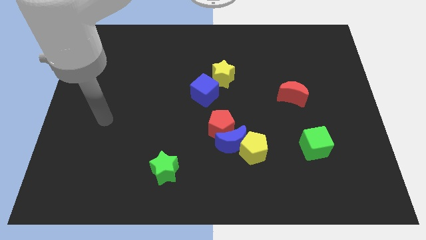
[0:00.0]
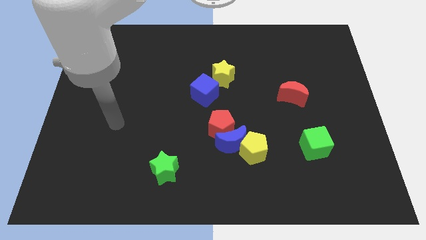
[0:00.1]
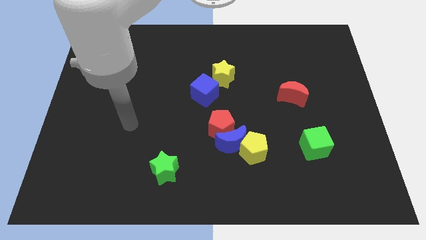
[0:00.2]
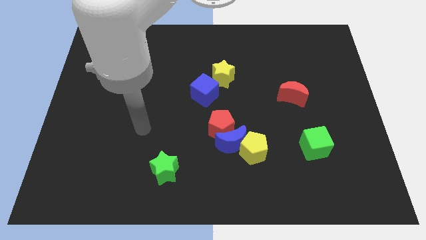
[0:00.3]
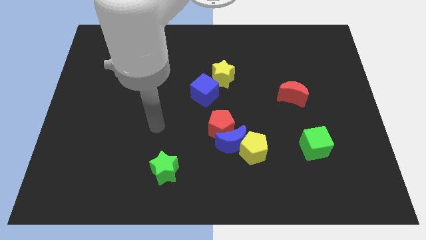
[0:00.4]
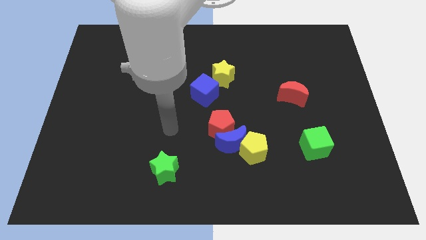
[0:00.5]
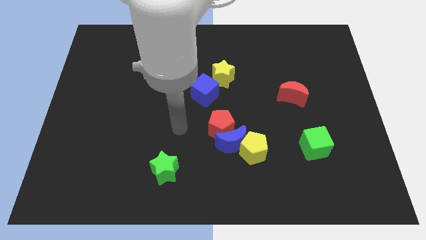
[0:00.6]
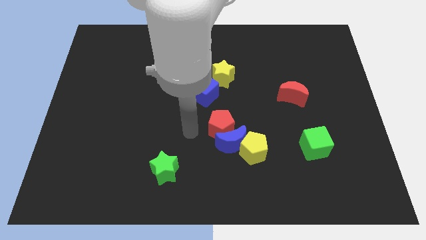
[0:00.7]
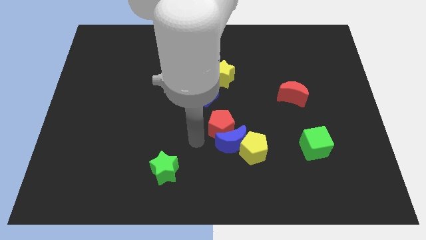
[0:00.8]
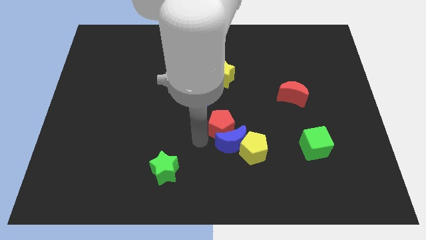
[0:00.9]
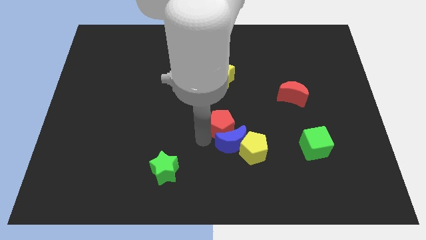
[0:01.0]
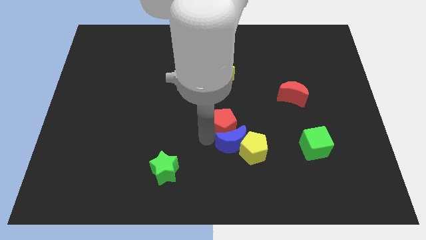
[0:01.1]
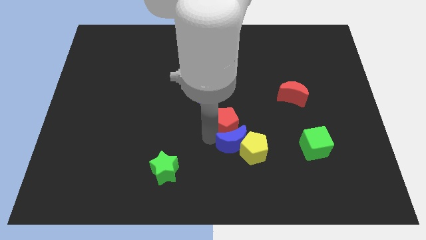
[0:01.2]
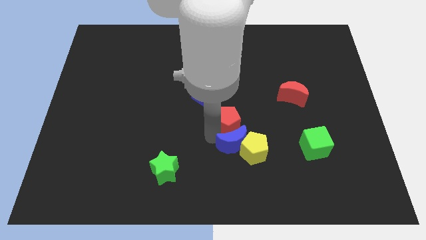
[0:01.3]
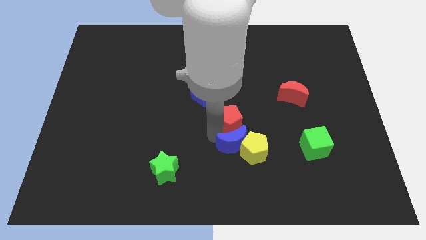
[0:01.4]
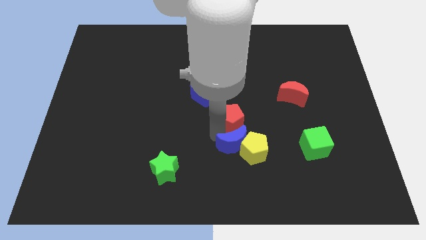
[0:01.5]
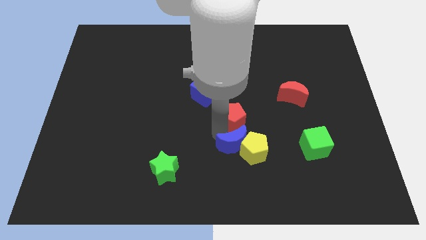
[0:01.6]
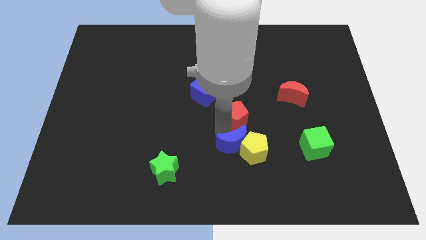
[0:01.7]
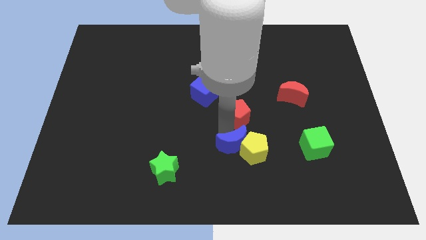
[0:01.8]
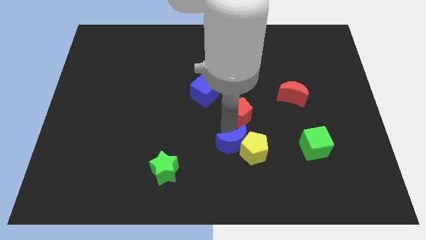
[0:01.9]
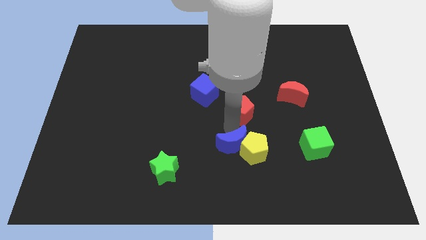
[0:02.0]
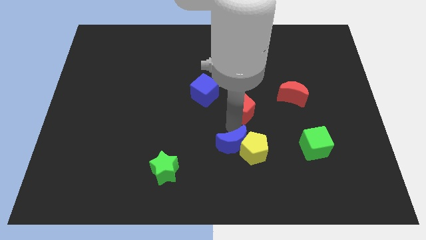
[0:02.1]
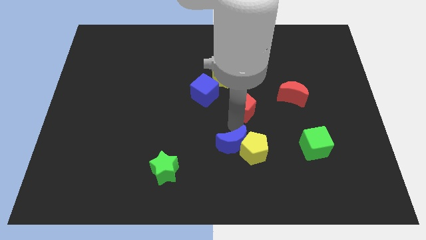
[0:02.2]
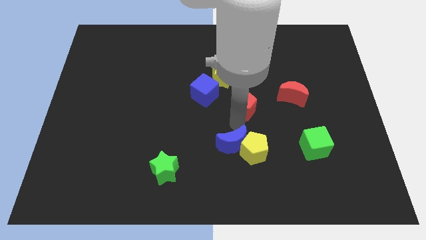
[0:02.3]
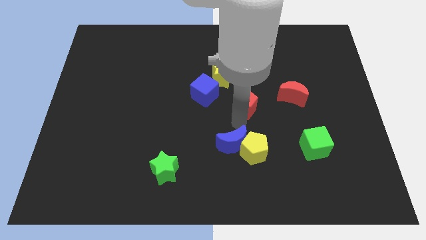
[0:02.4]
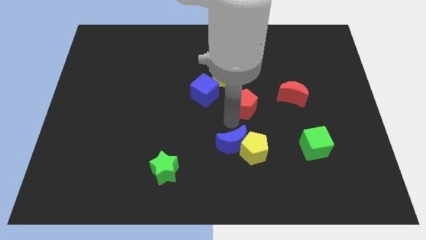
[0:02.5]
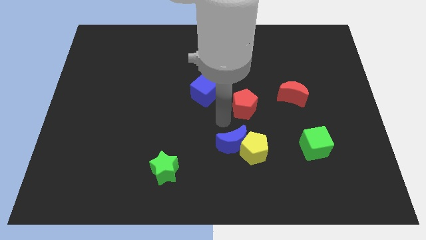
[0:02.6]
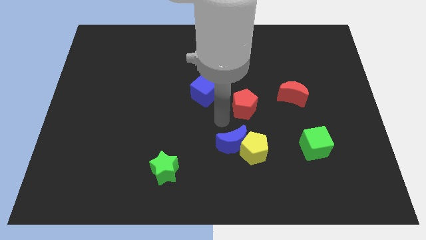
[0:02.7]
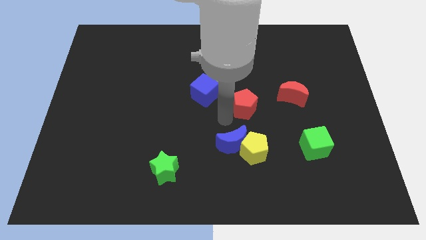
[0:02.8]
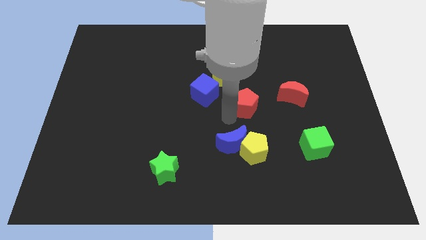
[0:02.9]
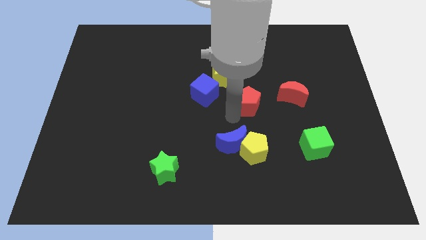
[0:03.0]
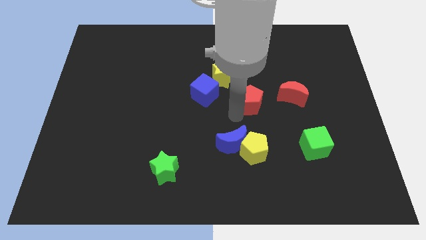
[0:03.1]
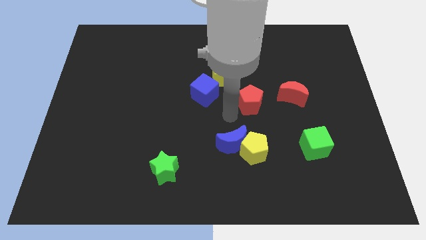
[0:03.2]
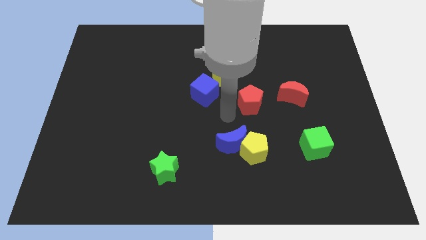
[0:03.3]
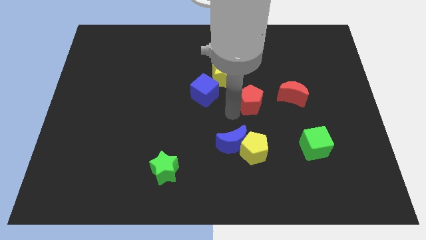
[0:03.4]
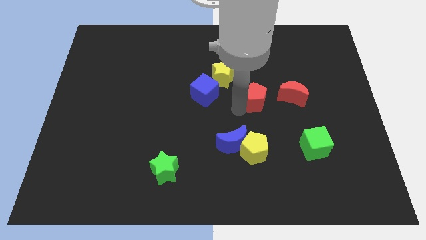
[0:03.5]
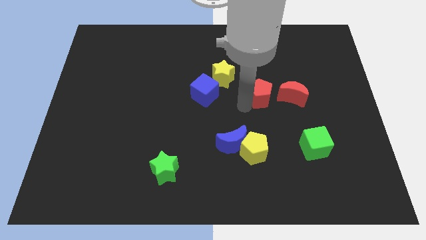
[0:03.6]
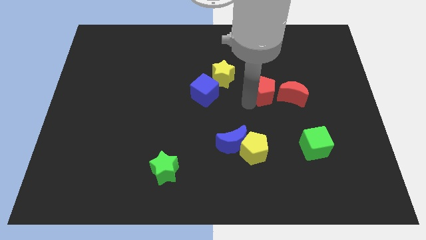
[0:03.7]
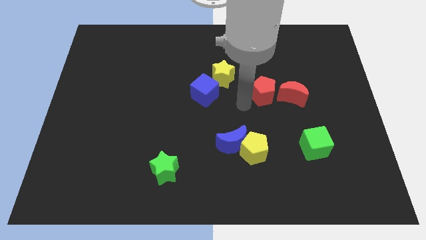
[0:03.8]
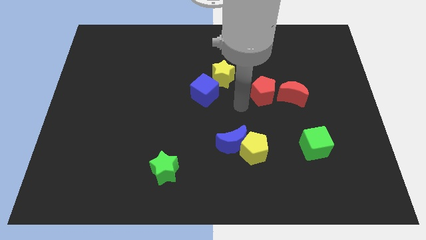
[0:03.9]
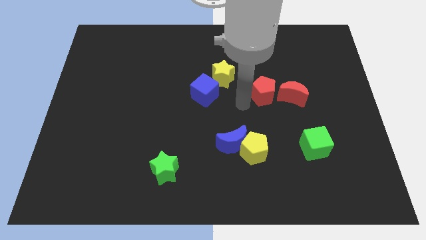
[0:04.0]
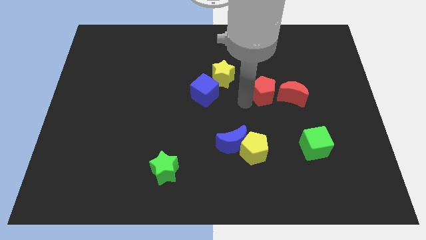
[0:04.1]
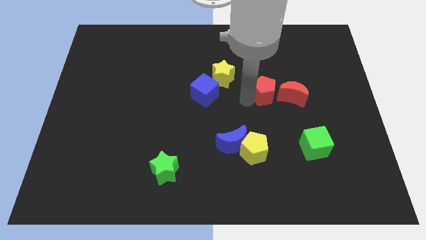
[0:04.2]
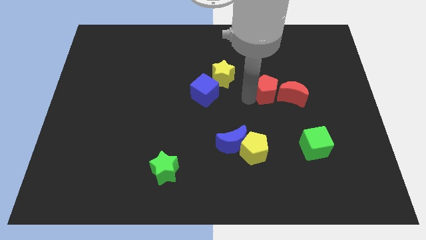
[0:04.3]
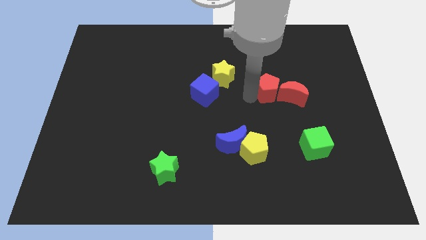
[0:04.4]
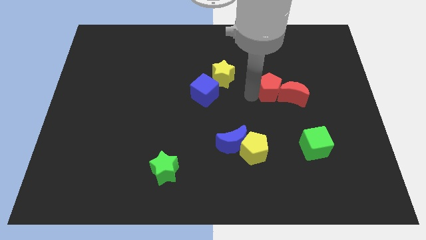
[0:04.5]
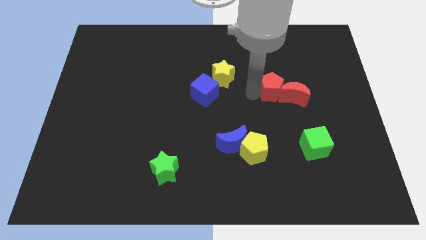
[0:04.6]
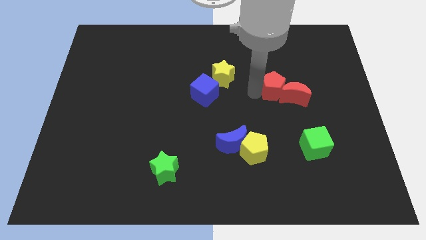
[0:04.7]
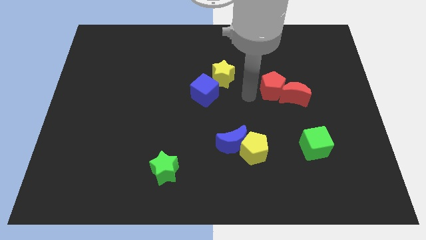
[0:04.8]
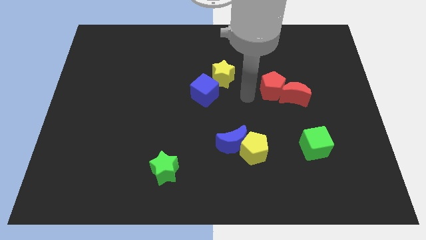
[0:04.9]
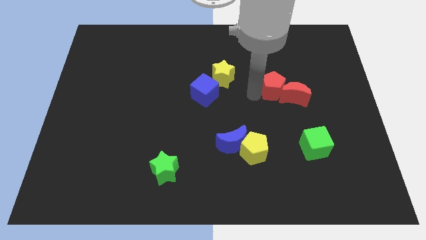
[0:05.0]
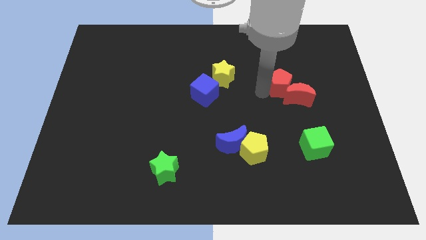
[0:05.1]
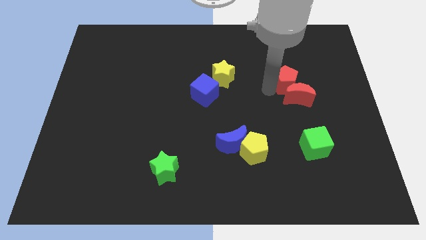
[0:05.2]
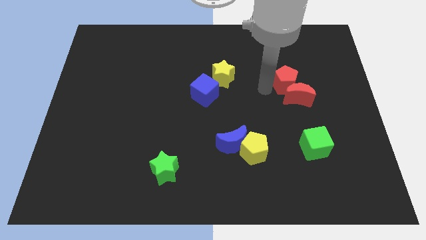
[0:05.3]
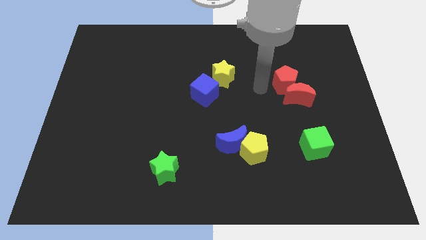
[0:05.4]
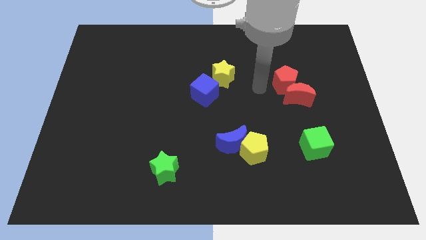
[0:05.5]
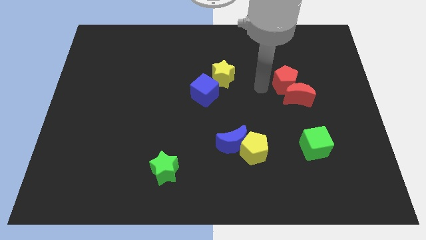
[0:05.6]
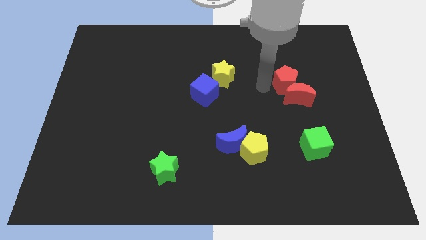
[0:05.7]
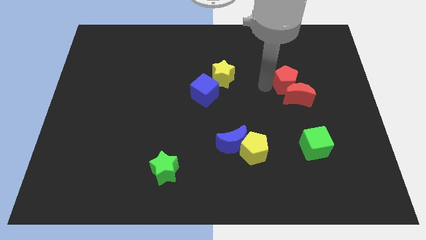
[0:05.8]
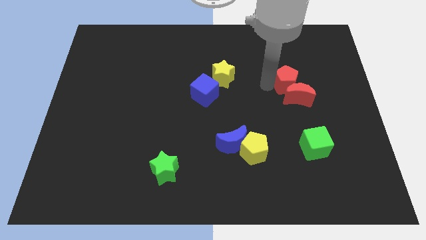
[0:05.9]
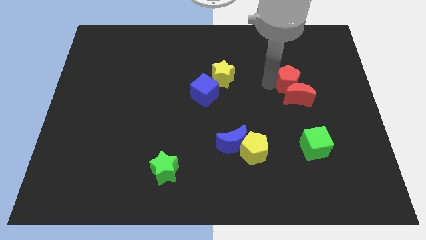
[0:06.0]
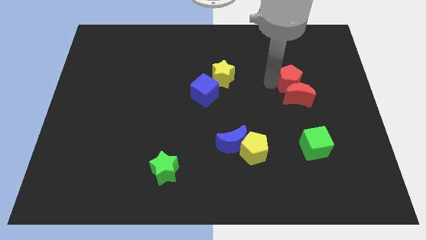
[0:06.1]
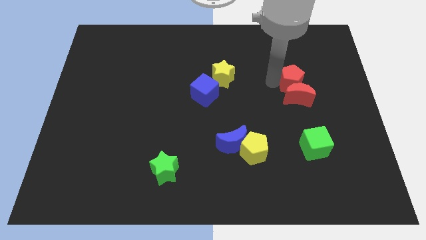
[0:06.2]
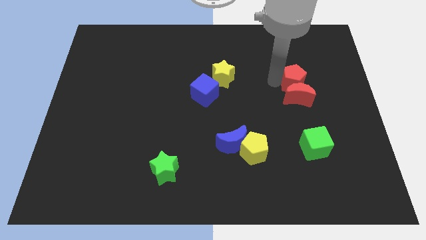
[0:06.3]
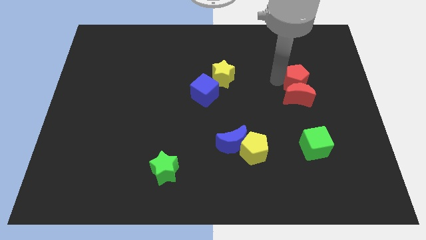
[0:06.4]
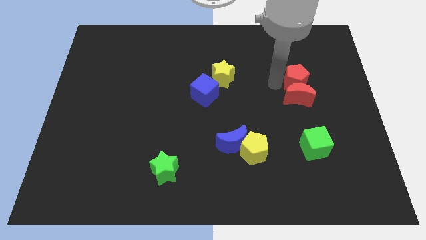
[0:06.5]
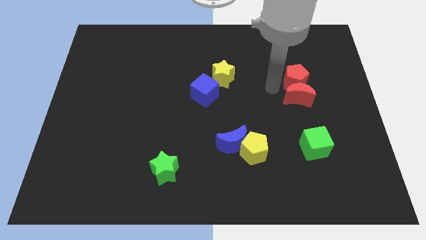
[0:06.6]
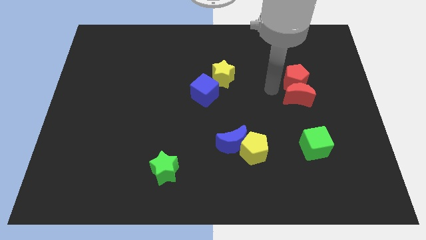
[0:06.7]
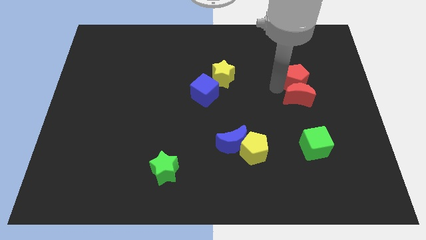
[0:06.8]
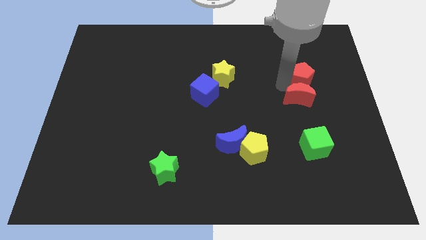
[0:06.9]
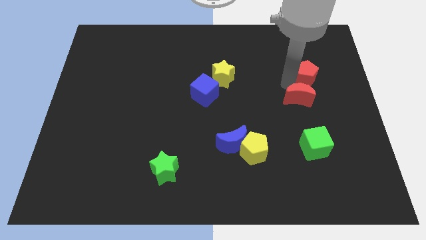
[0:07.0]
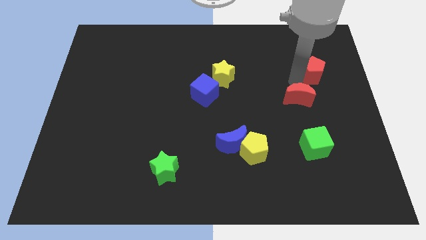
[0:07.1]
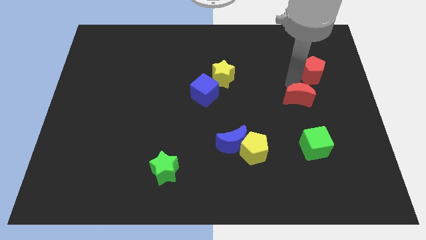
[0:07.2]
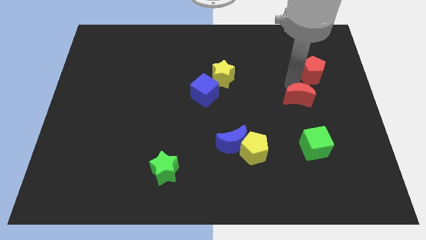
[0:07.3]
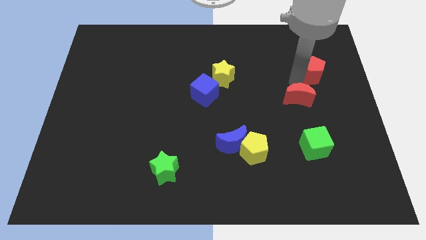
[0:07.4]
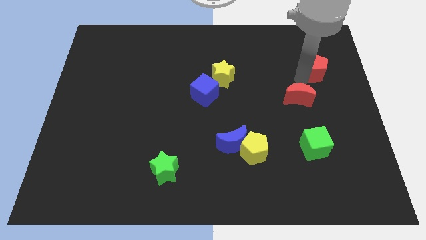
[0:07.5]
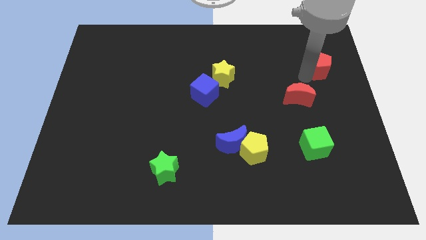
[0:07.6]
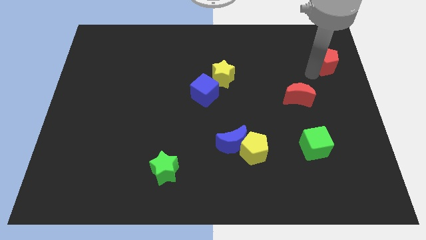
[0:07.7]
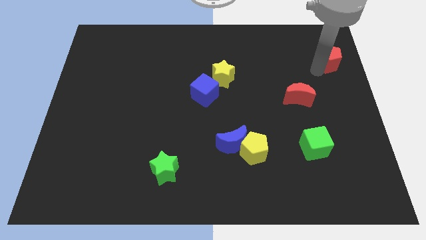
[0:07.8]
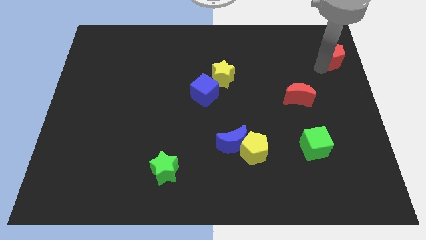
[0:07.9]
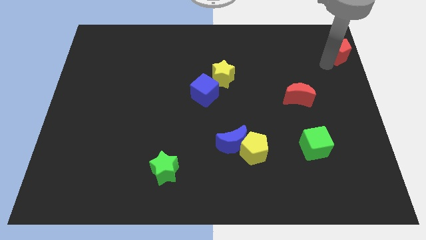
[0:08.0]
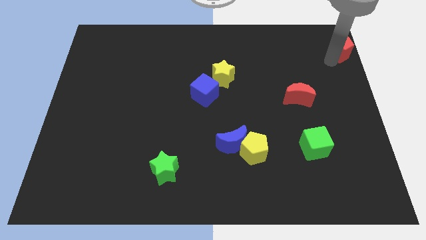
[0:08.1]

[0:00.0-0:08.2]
put the red pentagon to the top right of the board
